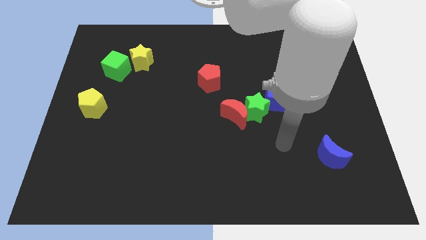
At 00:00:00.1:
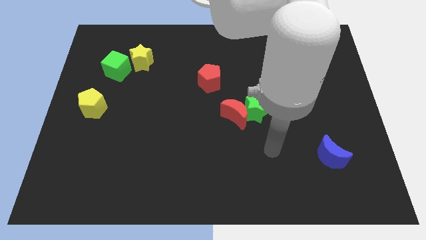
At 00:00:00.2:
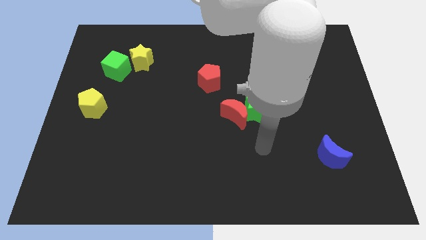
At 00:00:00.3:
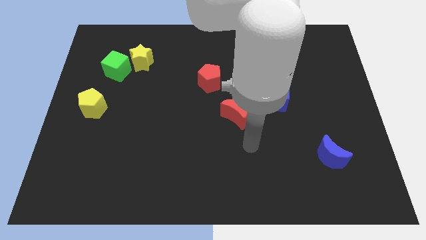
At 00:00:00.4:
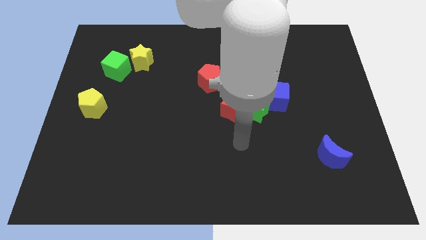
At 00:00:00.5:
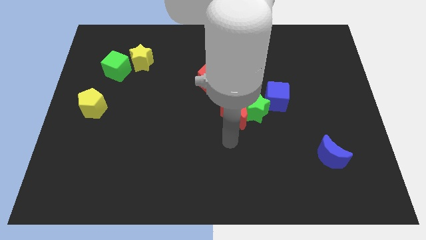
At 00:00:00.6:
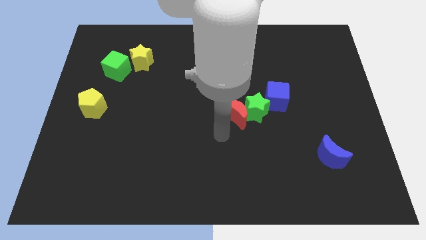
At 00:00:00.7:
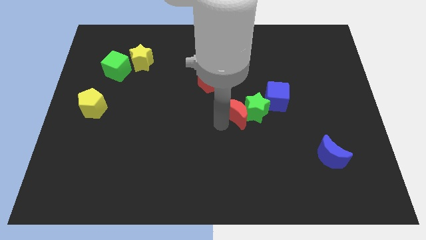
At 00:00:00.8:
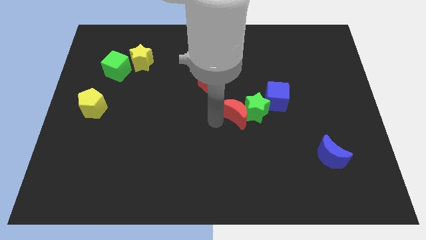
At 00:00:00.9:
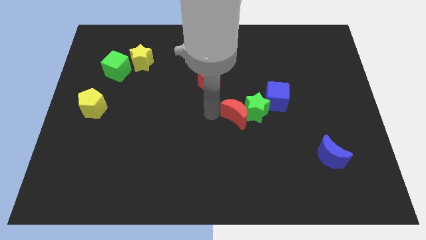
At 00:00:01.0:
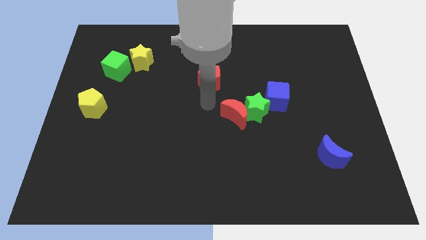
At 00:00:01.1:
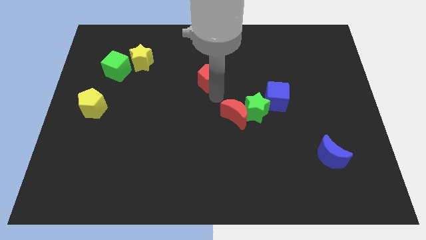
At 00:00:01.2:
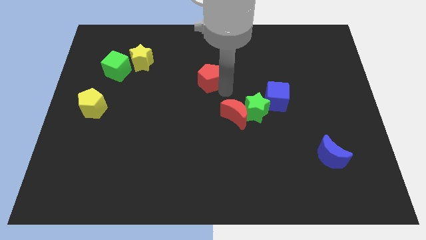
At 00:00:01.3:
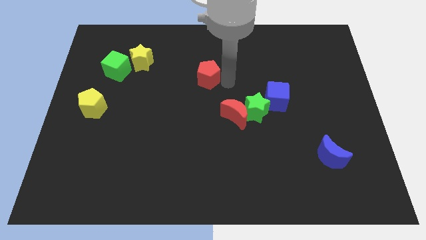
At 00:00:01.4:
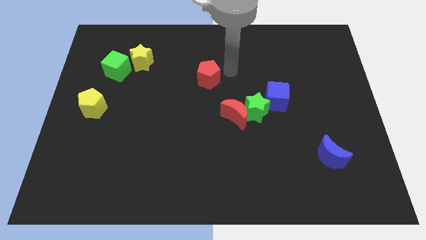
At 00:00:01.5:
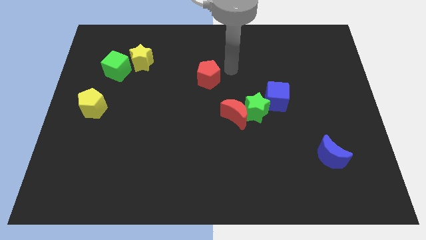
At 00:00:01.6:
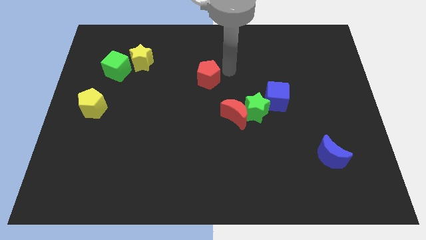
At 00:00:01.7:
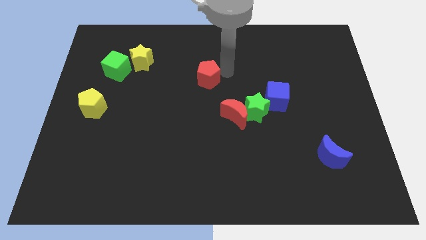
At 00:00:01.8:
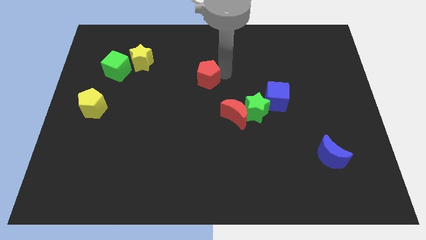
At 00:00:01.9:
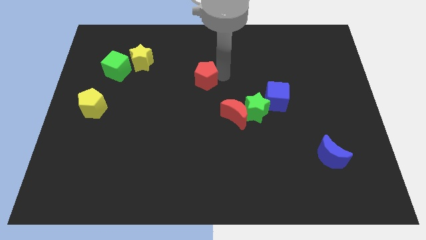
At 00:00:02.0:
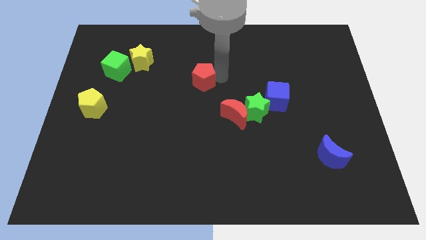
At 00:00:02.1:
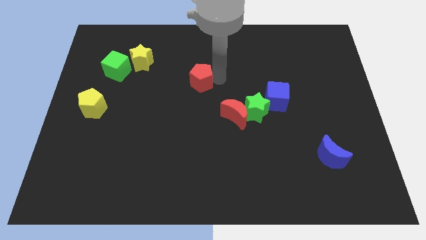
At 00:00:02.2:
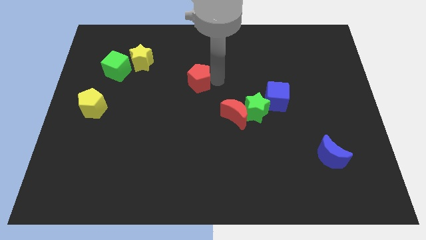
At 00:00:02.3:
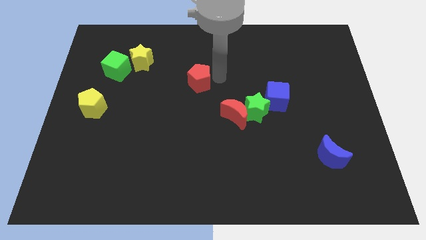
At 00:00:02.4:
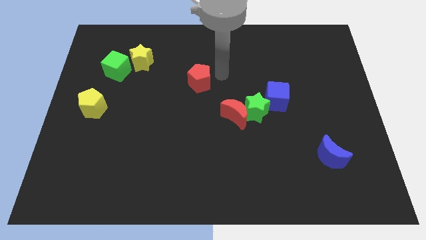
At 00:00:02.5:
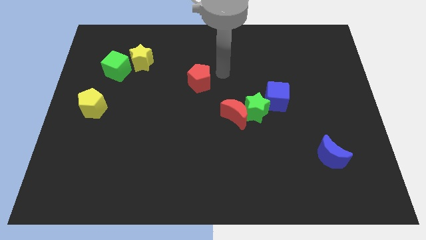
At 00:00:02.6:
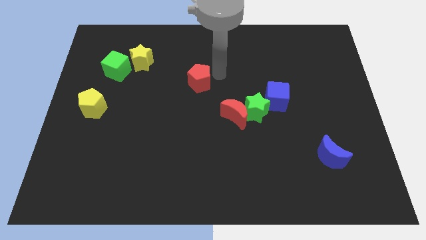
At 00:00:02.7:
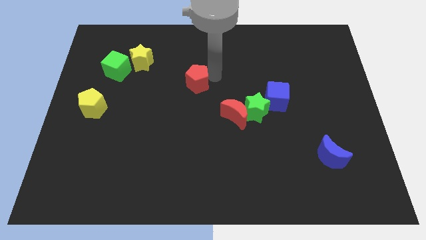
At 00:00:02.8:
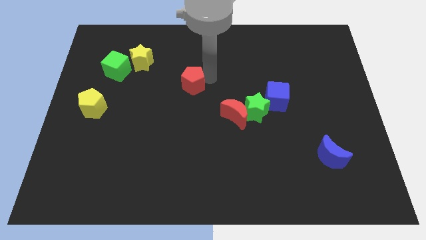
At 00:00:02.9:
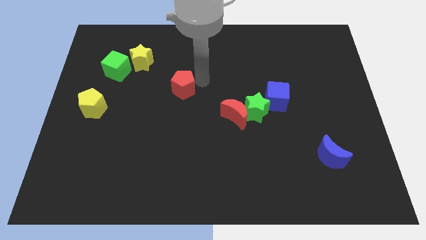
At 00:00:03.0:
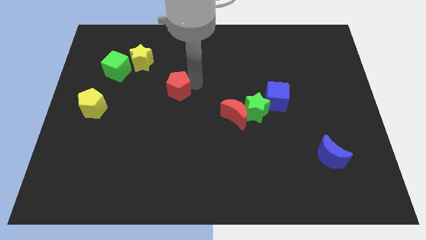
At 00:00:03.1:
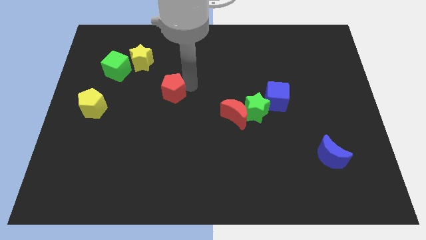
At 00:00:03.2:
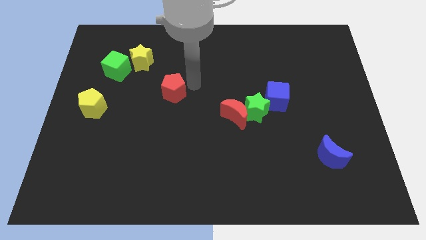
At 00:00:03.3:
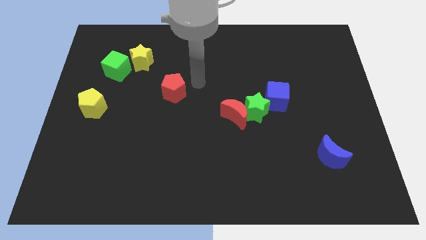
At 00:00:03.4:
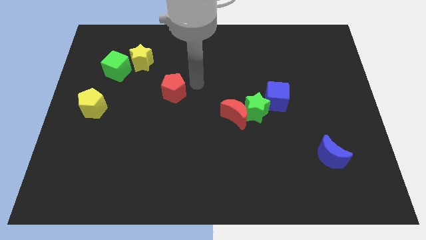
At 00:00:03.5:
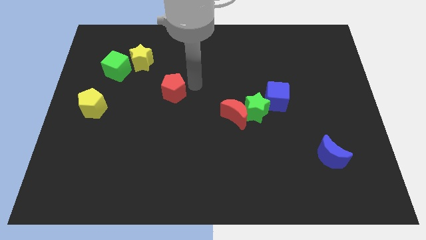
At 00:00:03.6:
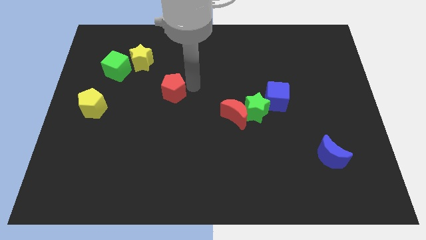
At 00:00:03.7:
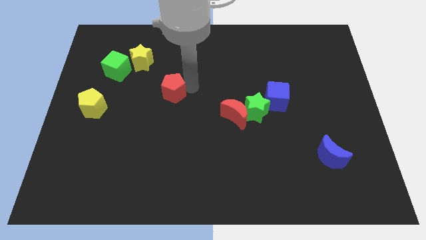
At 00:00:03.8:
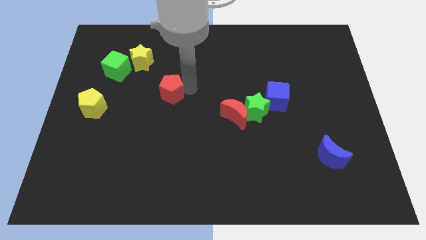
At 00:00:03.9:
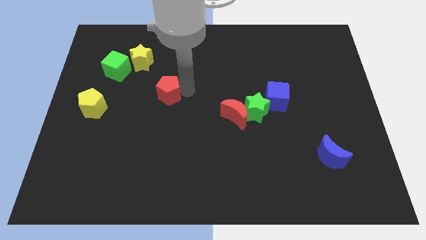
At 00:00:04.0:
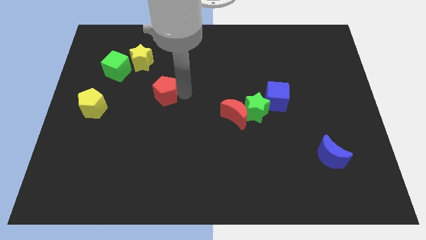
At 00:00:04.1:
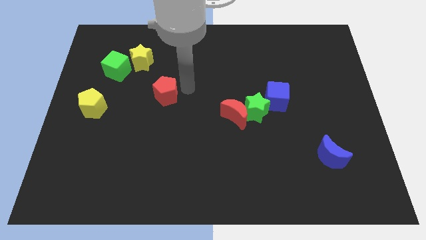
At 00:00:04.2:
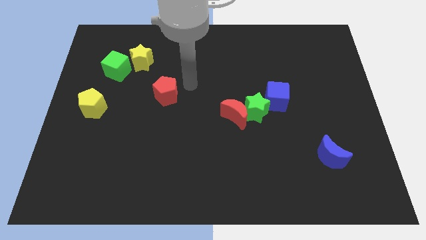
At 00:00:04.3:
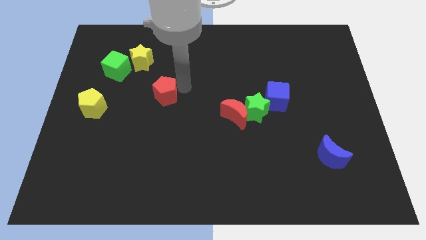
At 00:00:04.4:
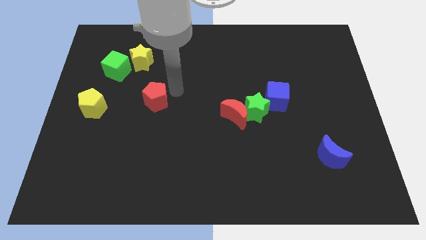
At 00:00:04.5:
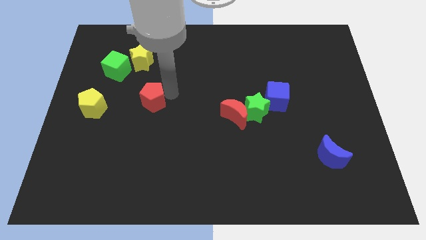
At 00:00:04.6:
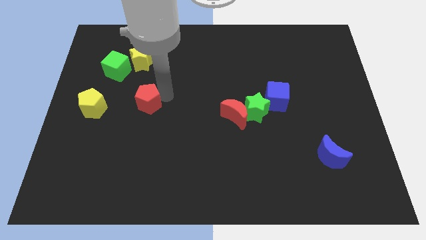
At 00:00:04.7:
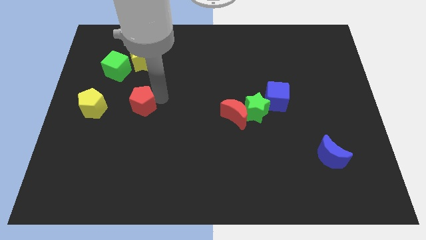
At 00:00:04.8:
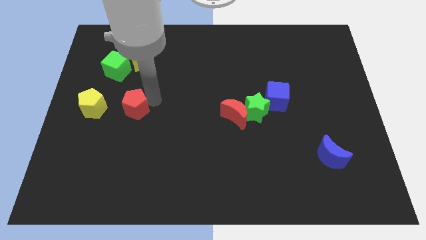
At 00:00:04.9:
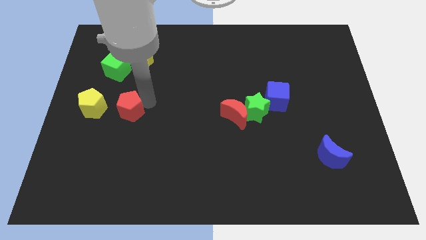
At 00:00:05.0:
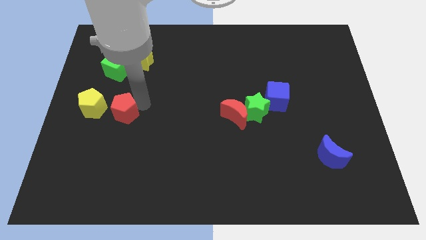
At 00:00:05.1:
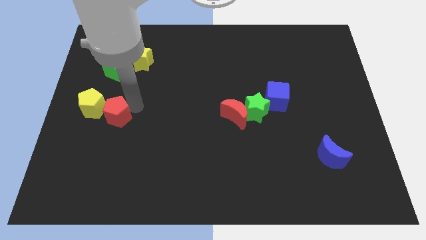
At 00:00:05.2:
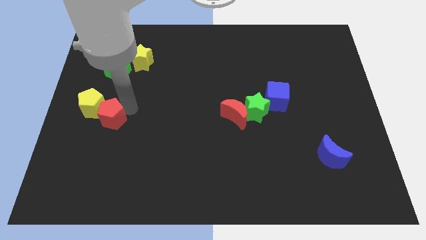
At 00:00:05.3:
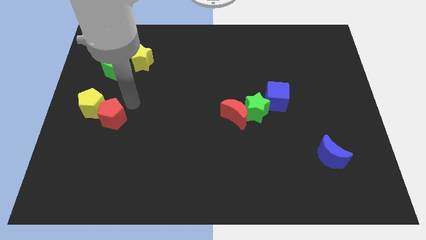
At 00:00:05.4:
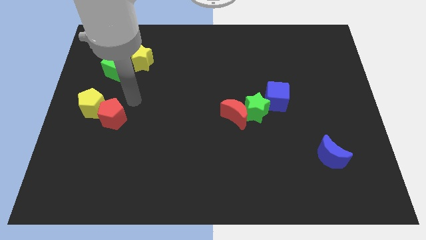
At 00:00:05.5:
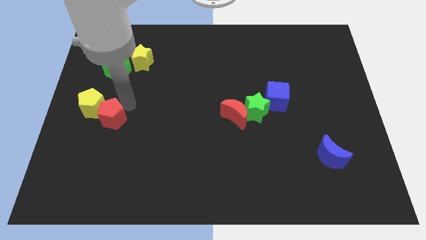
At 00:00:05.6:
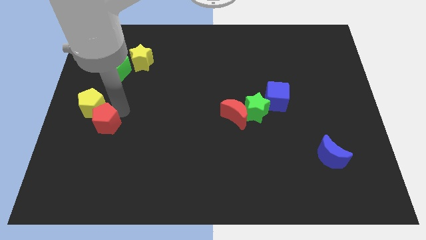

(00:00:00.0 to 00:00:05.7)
put the red pentagon to the bottom side of the yellow pentagon
